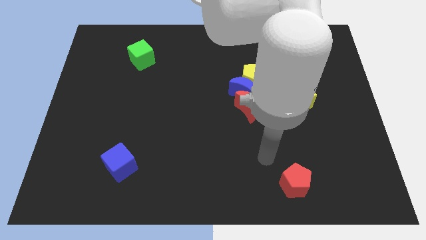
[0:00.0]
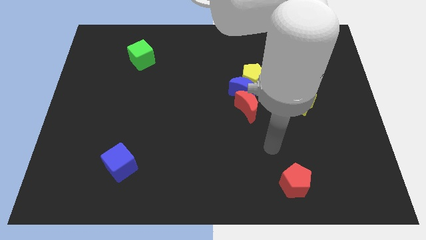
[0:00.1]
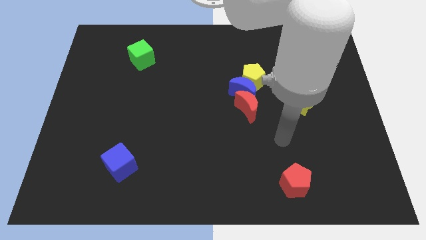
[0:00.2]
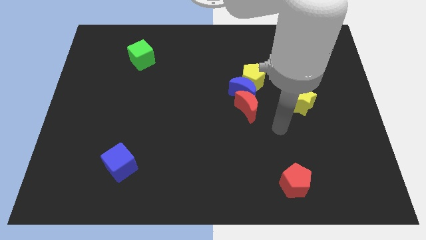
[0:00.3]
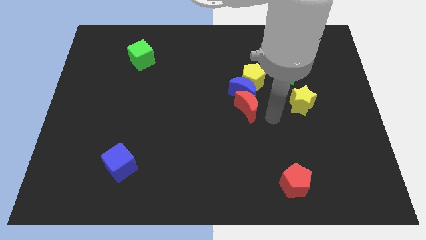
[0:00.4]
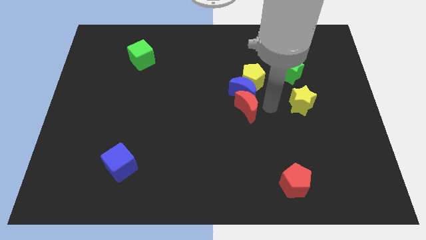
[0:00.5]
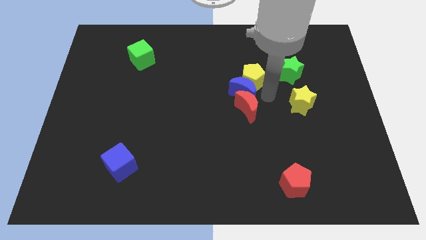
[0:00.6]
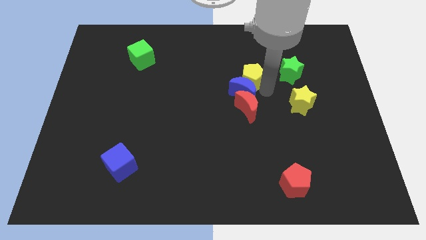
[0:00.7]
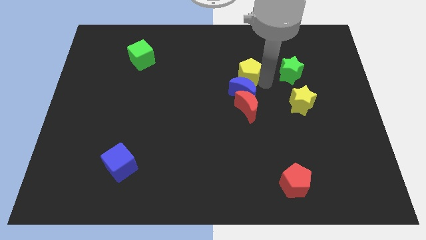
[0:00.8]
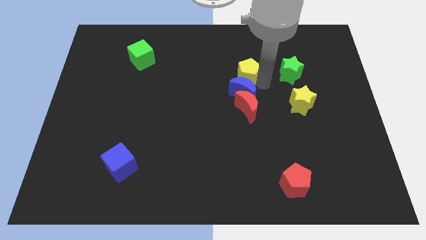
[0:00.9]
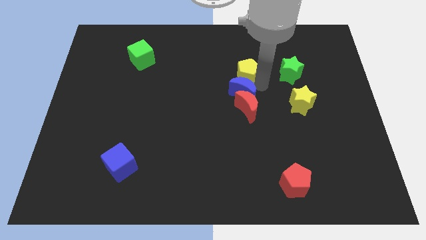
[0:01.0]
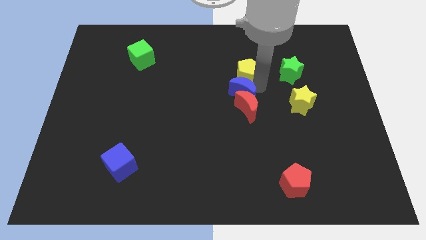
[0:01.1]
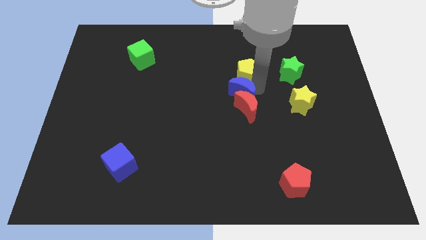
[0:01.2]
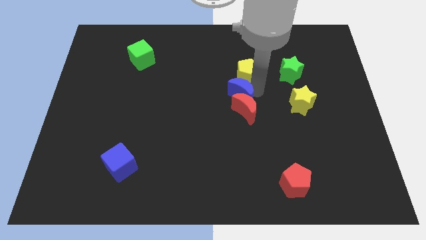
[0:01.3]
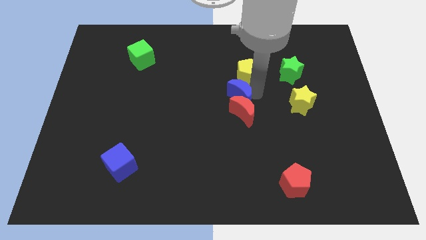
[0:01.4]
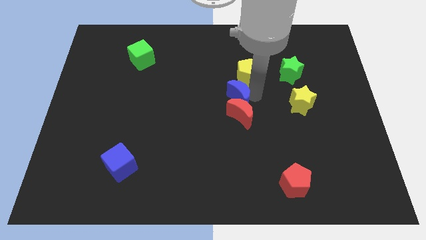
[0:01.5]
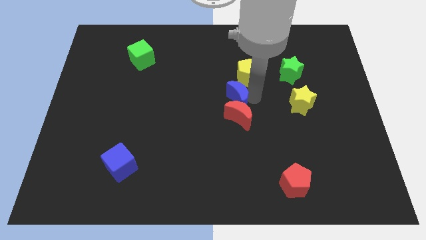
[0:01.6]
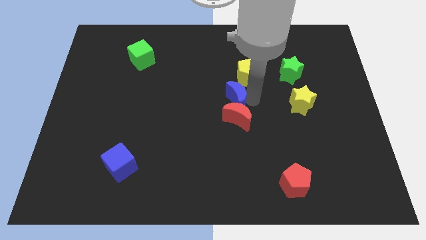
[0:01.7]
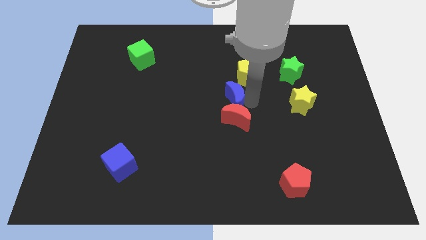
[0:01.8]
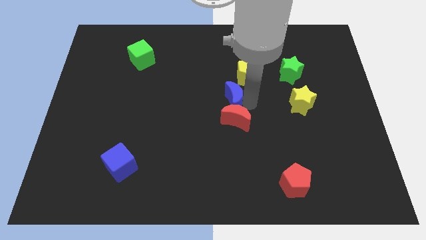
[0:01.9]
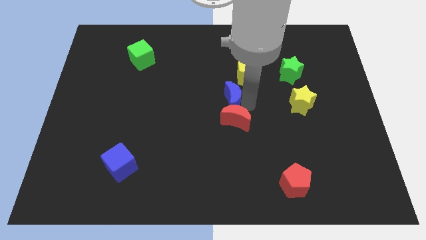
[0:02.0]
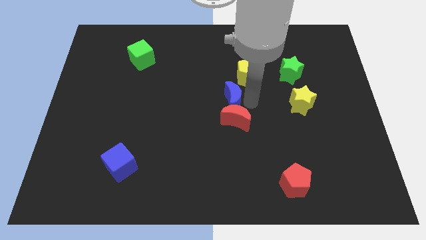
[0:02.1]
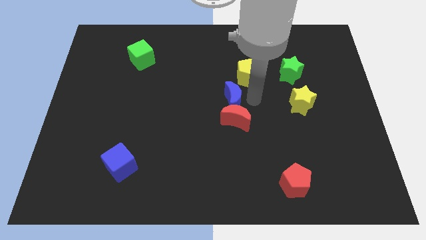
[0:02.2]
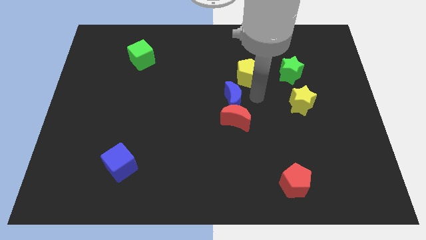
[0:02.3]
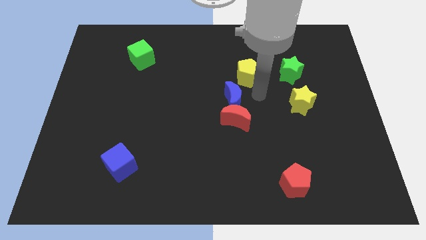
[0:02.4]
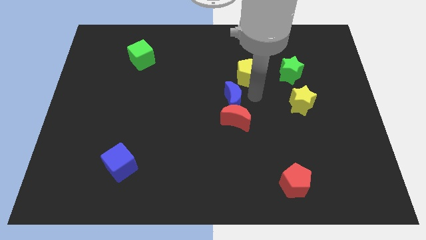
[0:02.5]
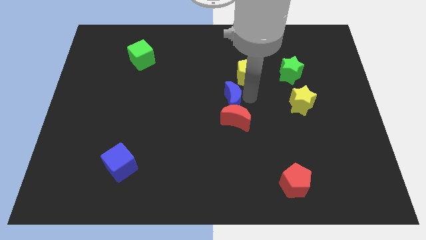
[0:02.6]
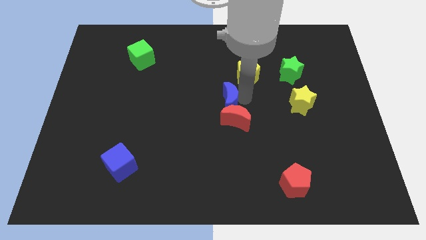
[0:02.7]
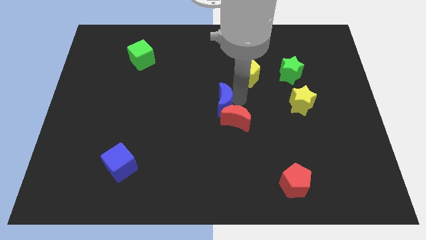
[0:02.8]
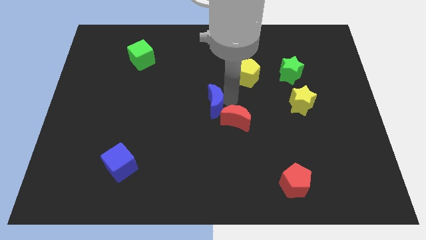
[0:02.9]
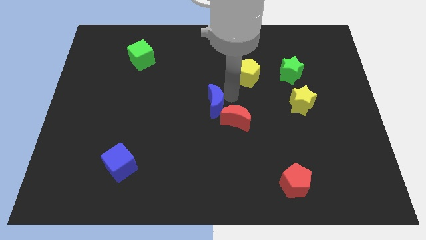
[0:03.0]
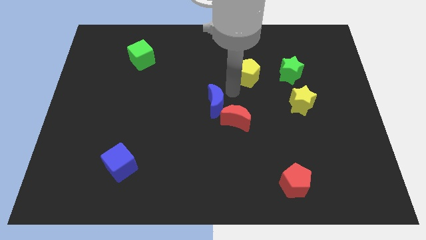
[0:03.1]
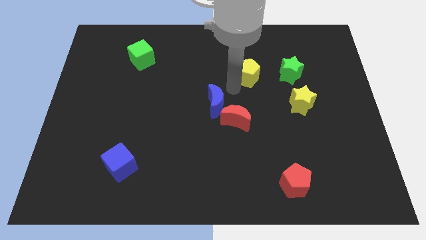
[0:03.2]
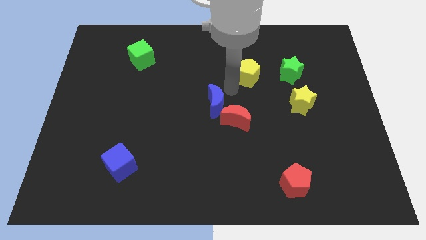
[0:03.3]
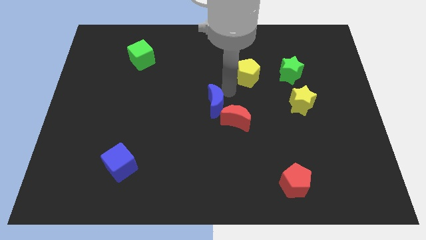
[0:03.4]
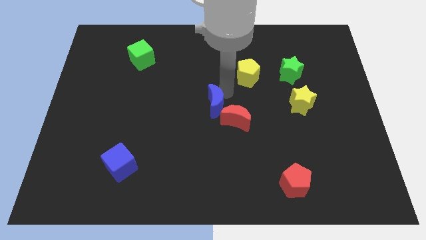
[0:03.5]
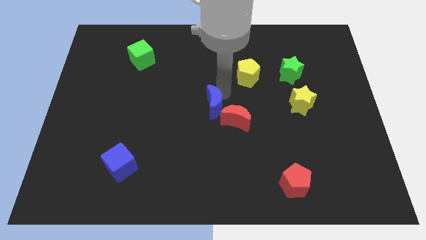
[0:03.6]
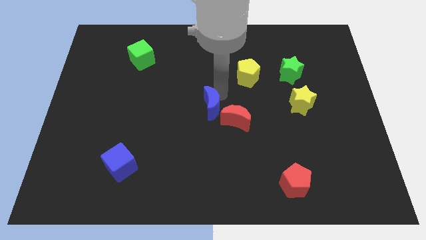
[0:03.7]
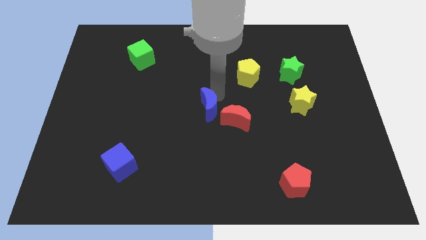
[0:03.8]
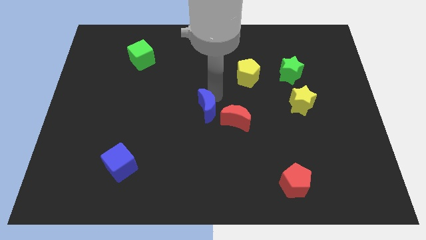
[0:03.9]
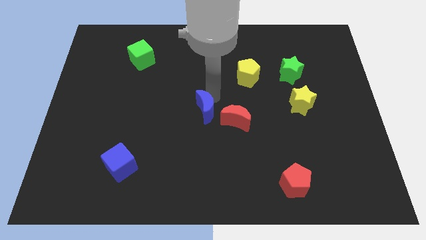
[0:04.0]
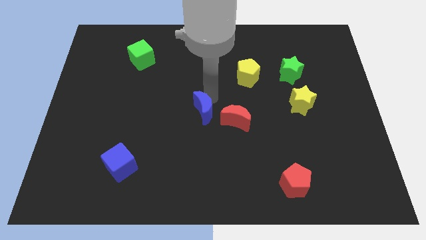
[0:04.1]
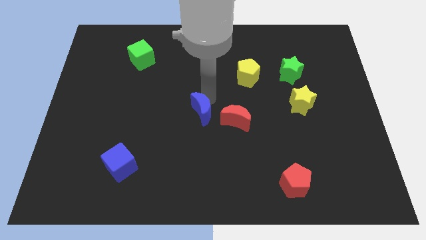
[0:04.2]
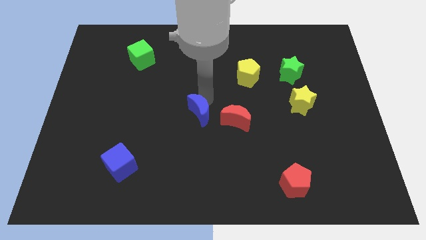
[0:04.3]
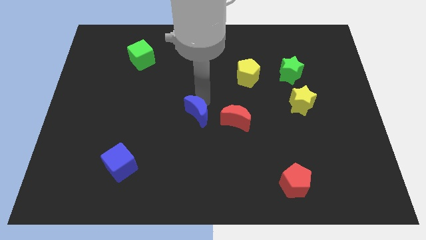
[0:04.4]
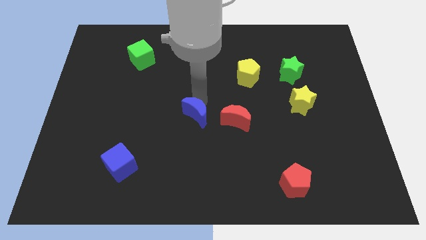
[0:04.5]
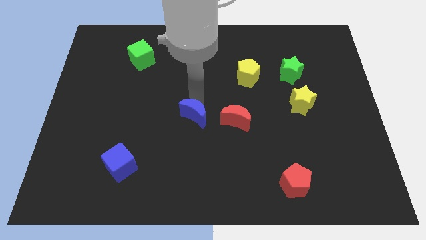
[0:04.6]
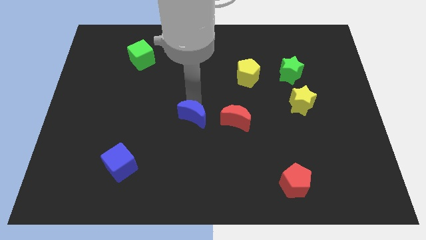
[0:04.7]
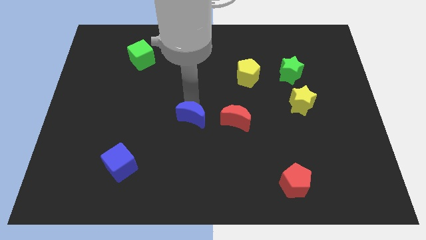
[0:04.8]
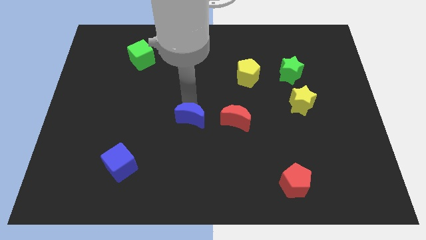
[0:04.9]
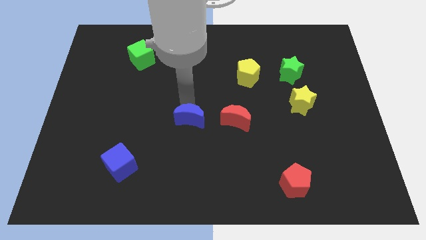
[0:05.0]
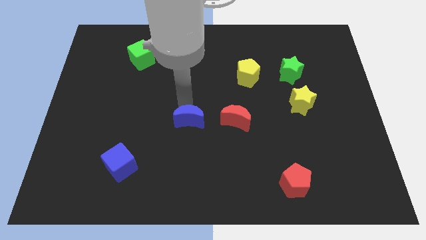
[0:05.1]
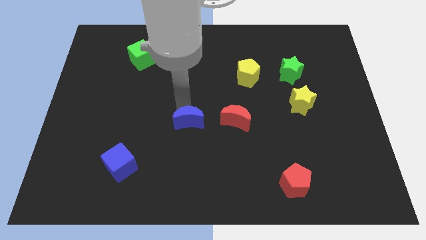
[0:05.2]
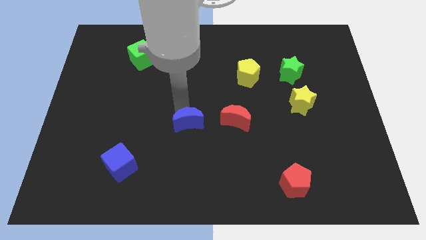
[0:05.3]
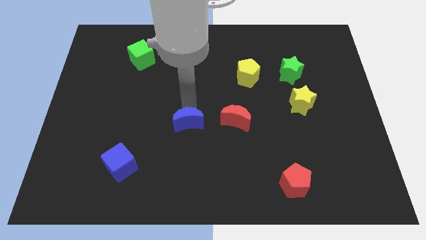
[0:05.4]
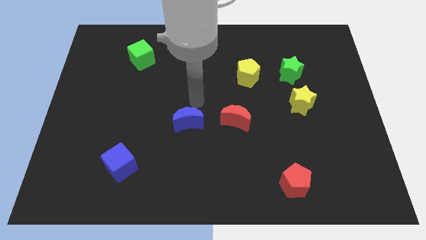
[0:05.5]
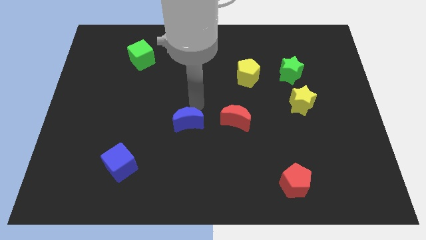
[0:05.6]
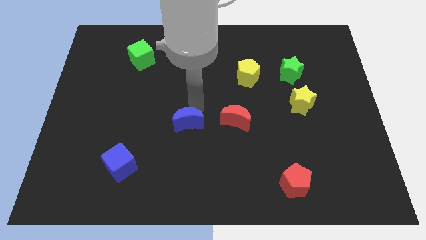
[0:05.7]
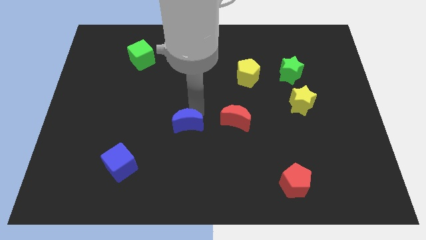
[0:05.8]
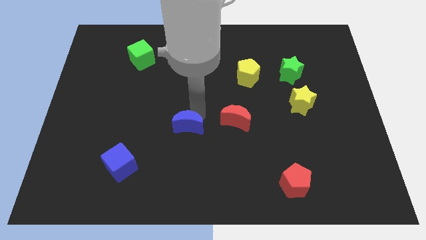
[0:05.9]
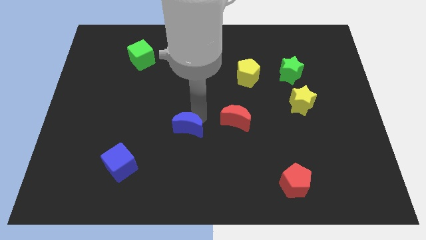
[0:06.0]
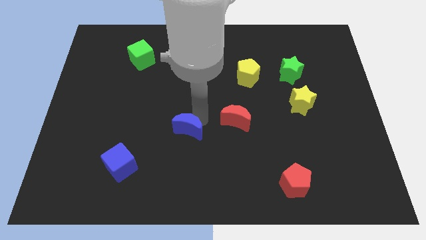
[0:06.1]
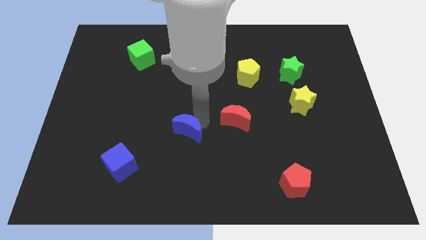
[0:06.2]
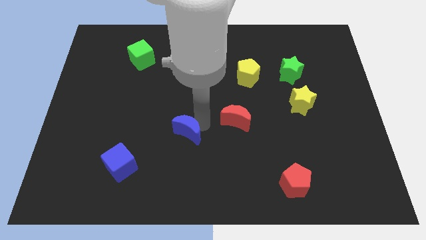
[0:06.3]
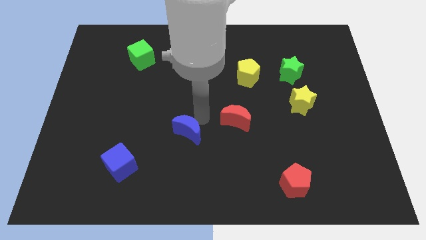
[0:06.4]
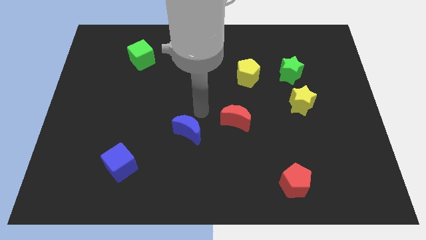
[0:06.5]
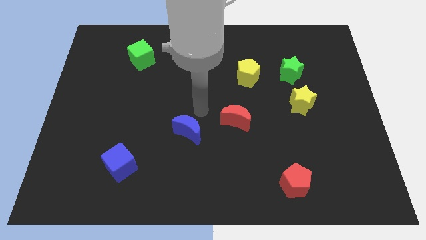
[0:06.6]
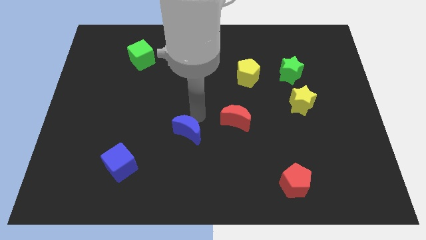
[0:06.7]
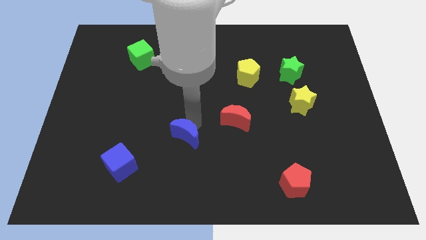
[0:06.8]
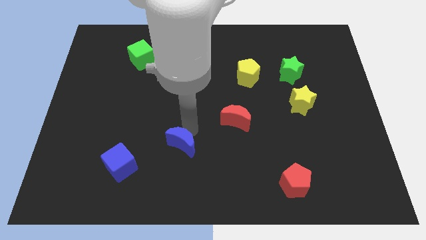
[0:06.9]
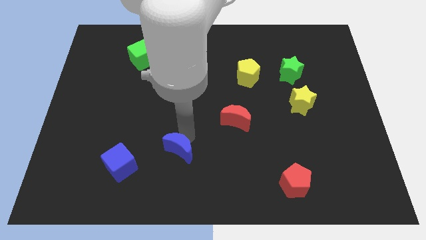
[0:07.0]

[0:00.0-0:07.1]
put the blue moon to the right of the blue cube
